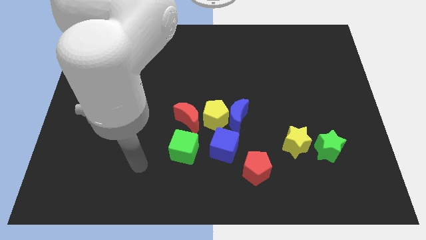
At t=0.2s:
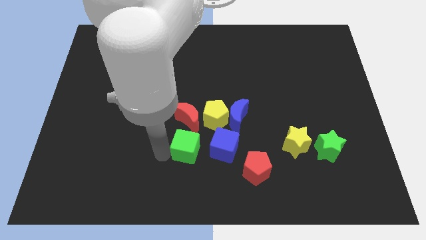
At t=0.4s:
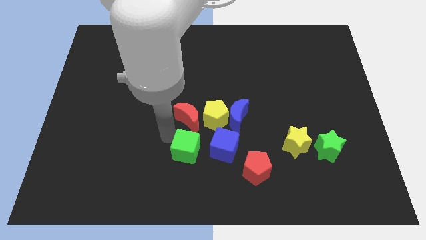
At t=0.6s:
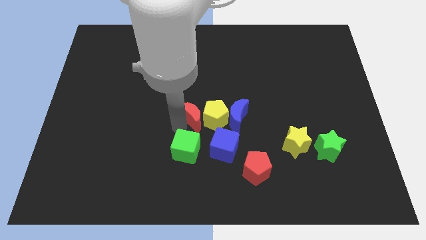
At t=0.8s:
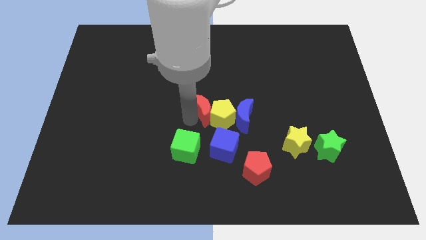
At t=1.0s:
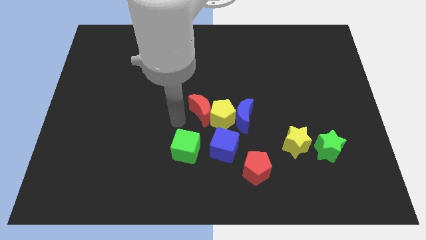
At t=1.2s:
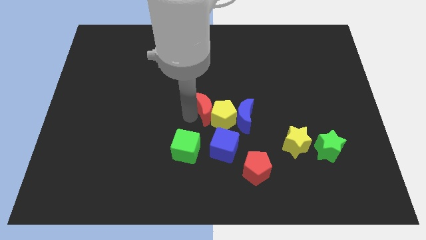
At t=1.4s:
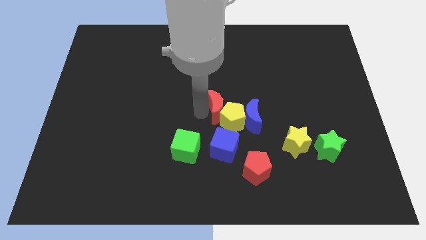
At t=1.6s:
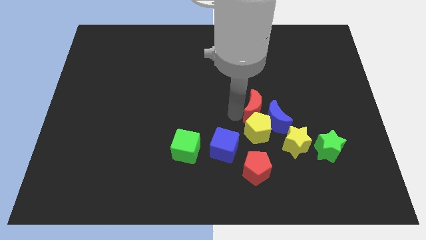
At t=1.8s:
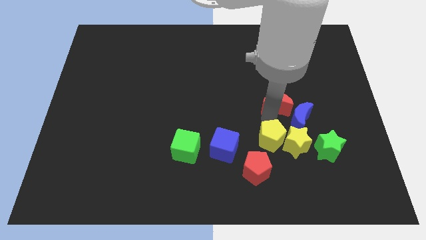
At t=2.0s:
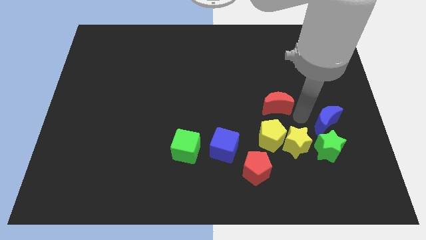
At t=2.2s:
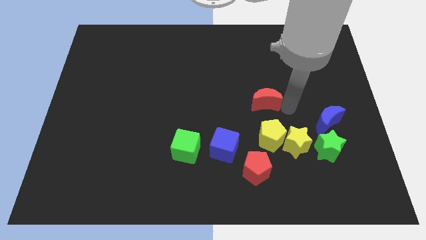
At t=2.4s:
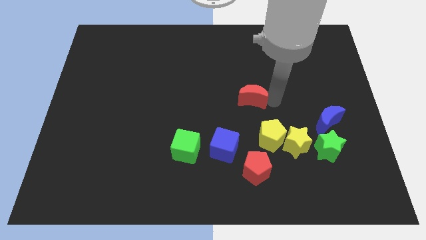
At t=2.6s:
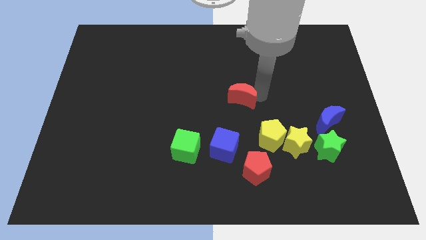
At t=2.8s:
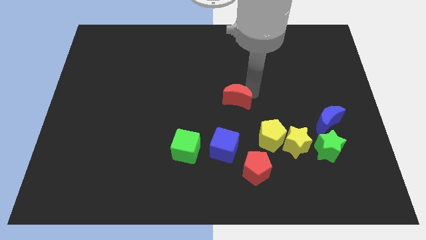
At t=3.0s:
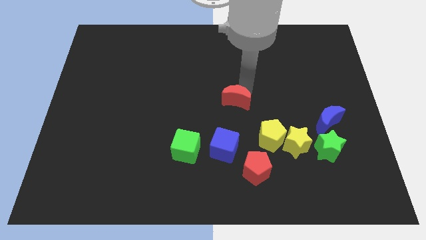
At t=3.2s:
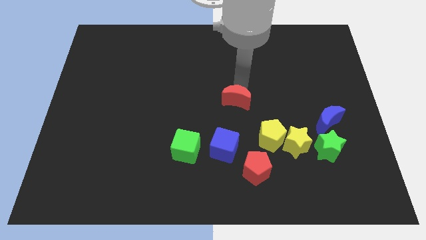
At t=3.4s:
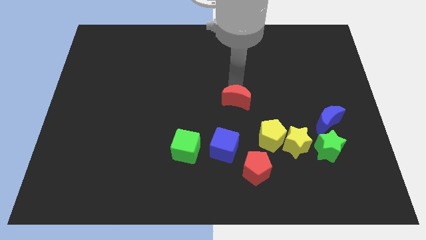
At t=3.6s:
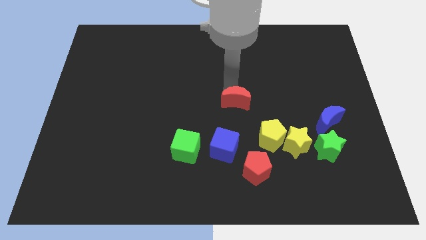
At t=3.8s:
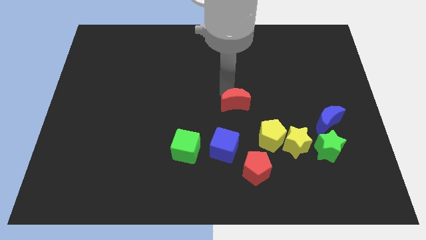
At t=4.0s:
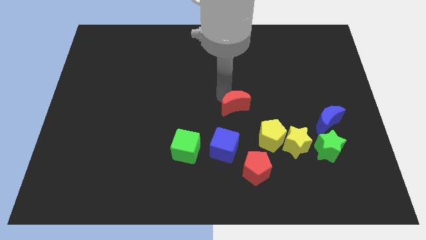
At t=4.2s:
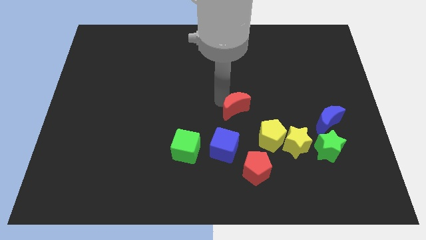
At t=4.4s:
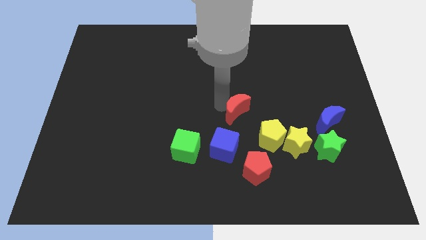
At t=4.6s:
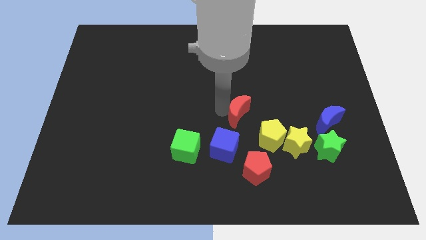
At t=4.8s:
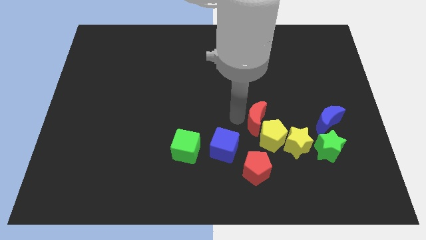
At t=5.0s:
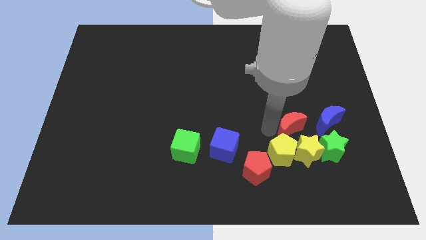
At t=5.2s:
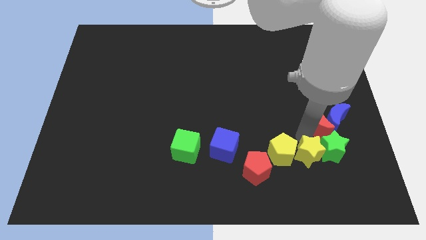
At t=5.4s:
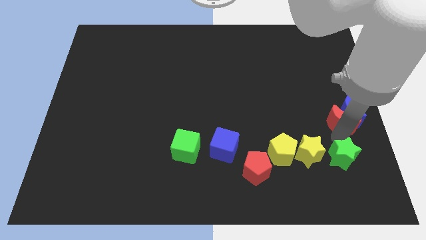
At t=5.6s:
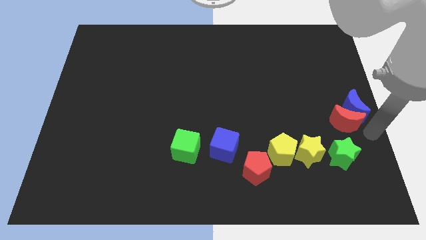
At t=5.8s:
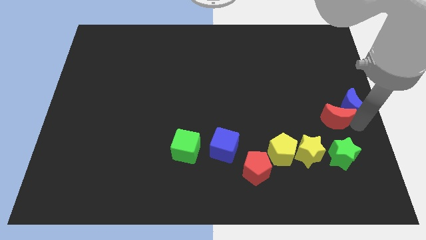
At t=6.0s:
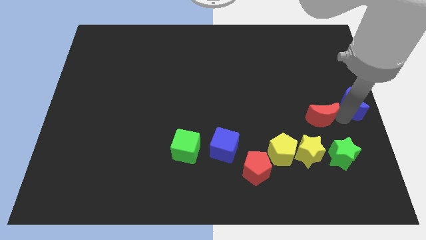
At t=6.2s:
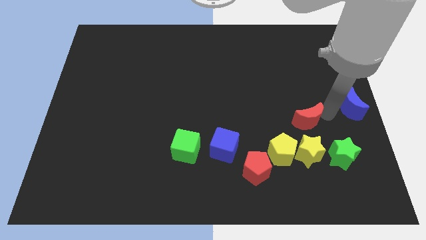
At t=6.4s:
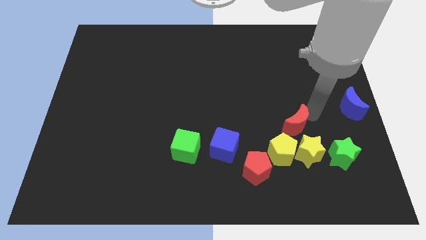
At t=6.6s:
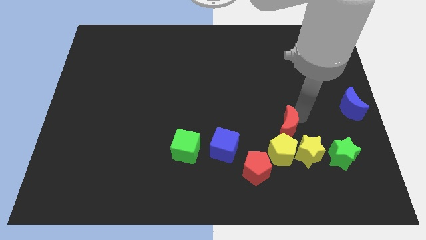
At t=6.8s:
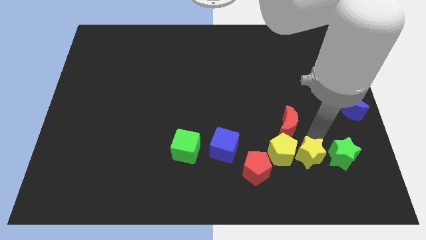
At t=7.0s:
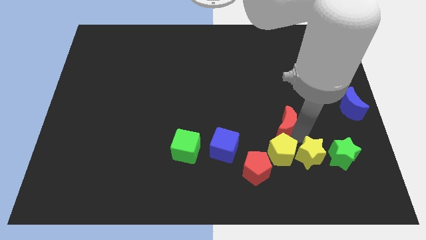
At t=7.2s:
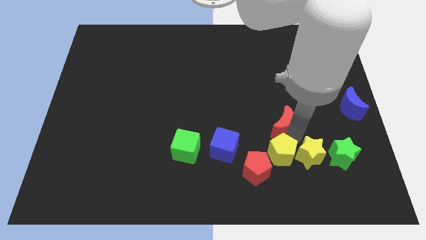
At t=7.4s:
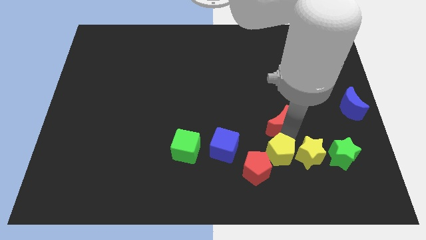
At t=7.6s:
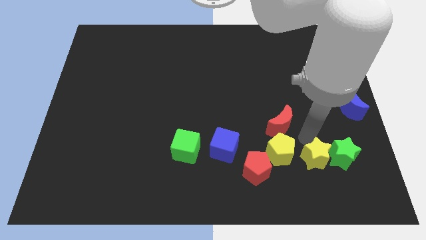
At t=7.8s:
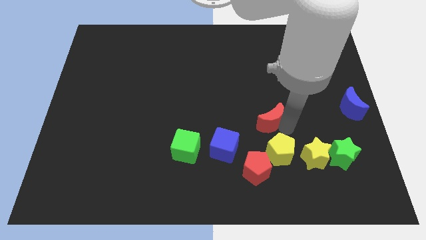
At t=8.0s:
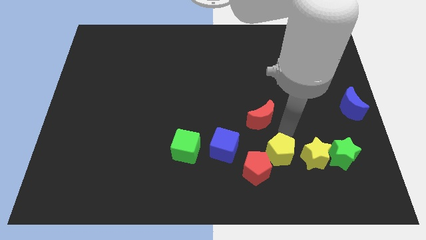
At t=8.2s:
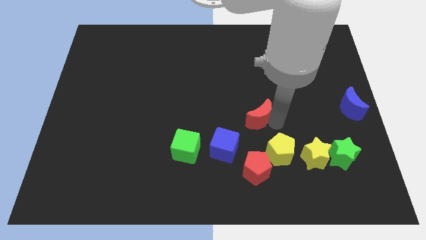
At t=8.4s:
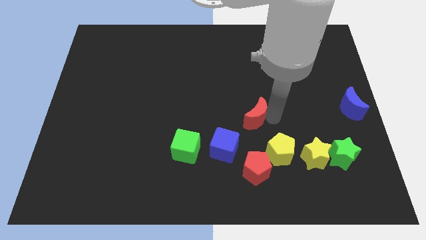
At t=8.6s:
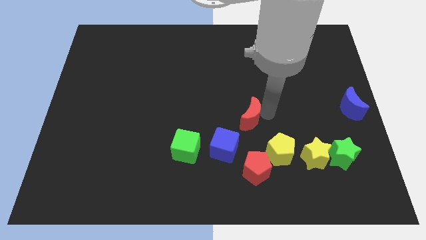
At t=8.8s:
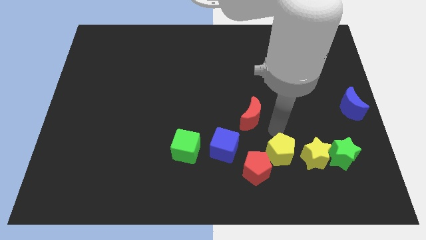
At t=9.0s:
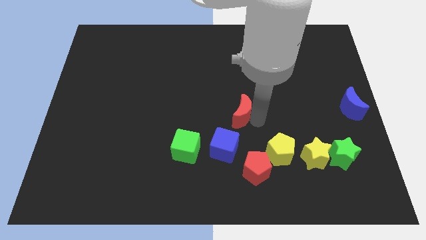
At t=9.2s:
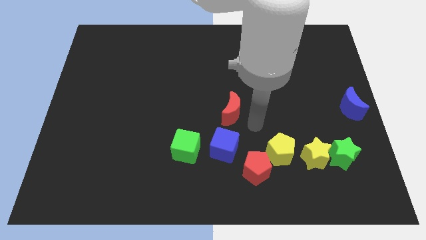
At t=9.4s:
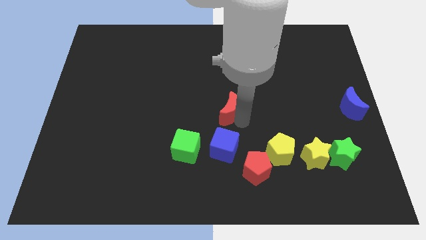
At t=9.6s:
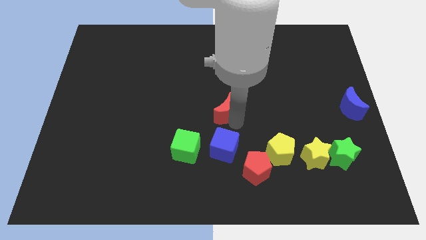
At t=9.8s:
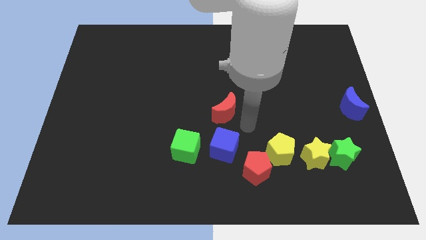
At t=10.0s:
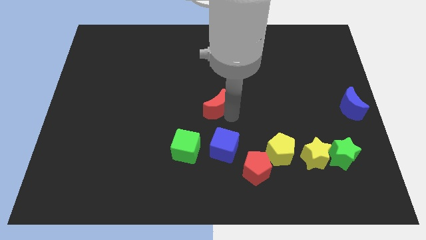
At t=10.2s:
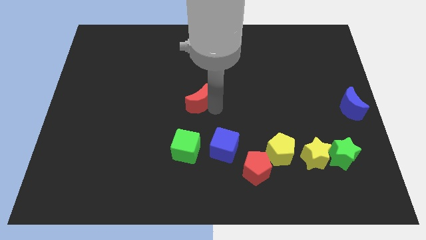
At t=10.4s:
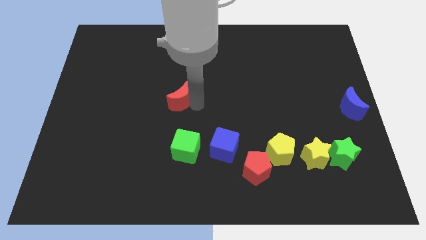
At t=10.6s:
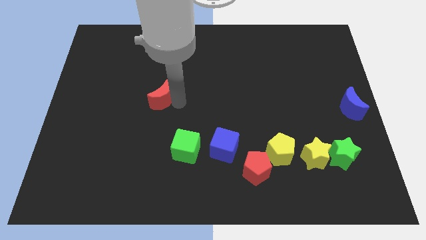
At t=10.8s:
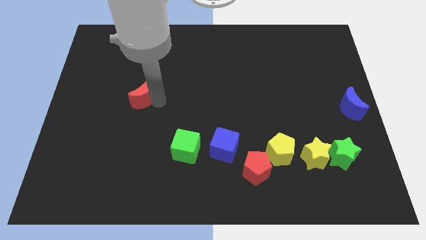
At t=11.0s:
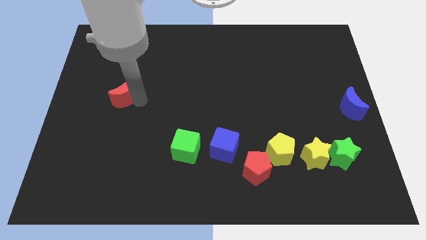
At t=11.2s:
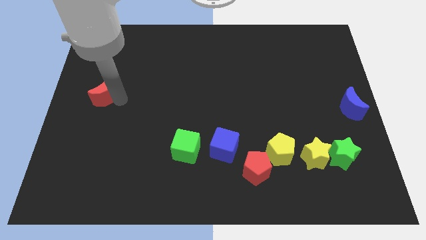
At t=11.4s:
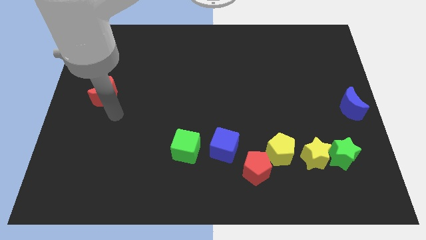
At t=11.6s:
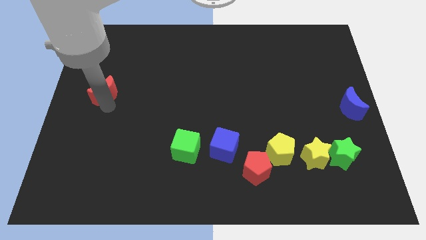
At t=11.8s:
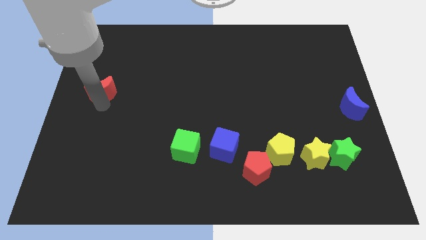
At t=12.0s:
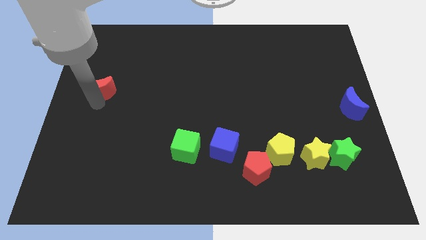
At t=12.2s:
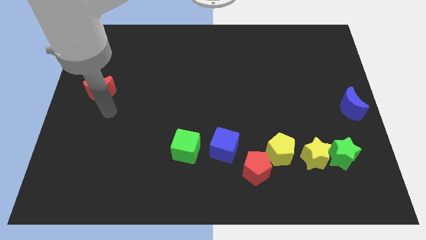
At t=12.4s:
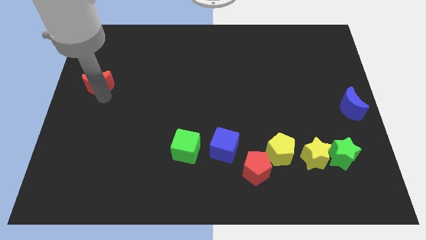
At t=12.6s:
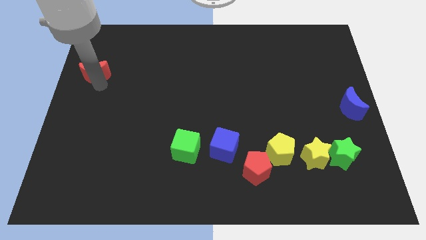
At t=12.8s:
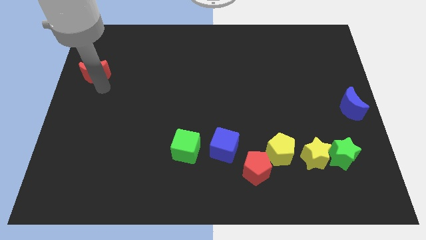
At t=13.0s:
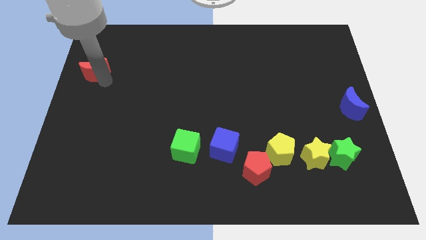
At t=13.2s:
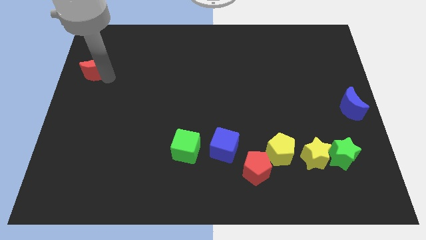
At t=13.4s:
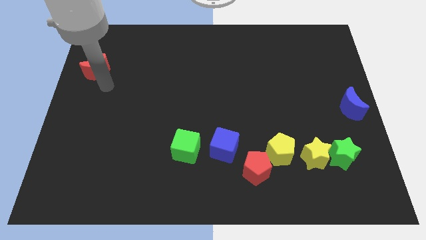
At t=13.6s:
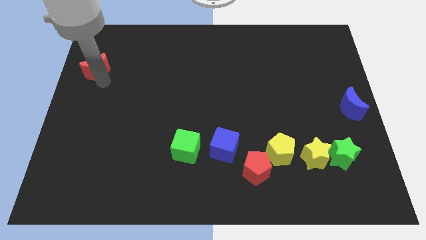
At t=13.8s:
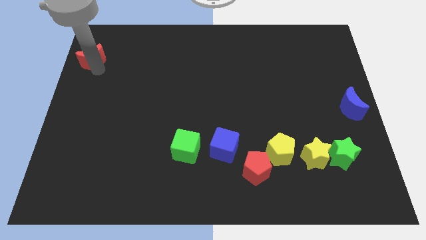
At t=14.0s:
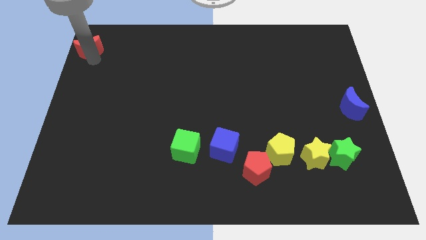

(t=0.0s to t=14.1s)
push the red moon to the top left corner
